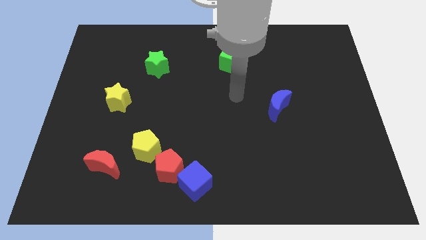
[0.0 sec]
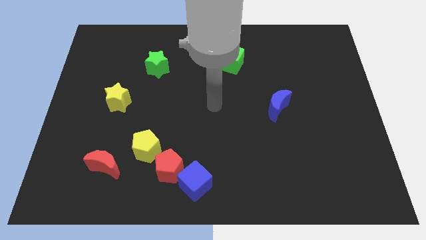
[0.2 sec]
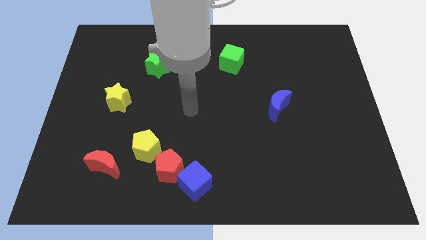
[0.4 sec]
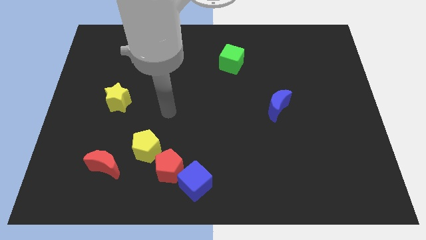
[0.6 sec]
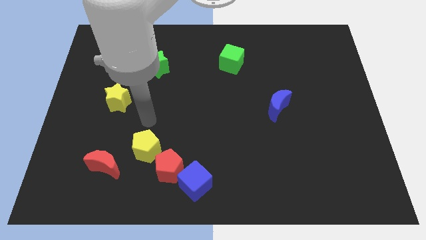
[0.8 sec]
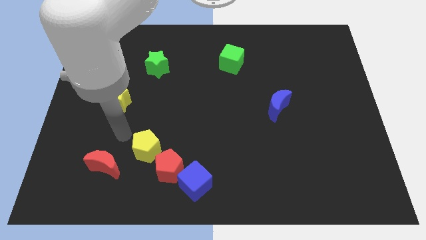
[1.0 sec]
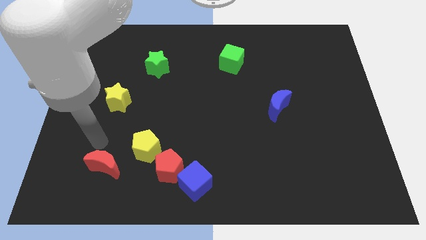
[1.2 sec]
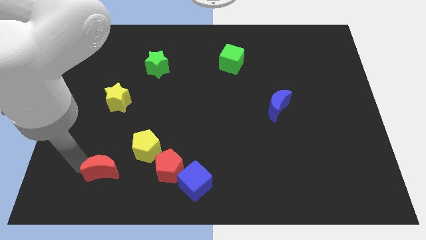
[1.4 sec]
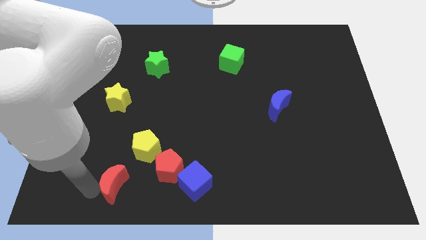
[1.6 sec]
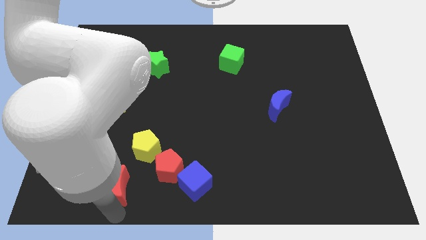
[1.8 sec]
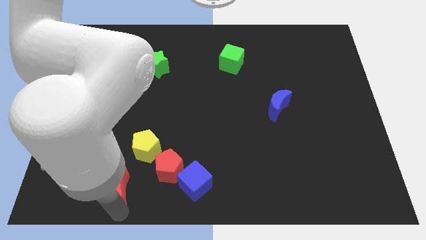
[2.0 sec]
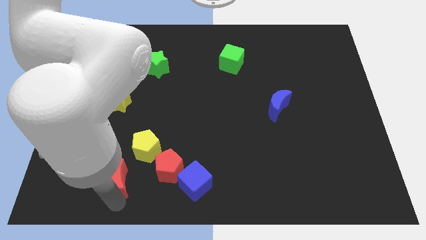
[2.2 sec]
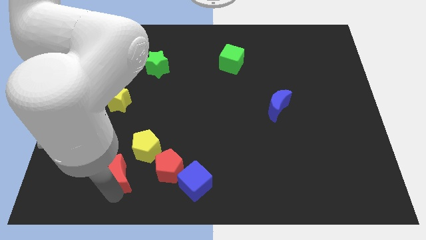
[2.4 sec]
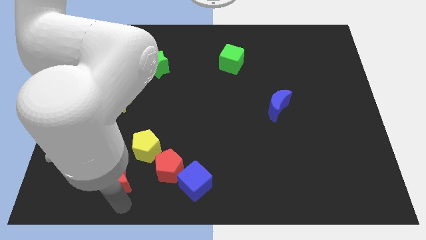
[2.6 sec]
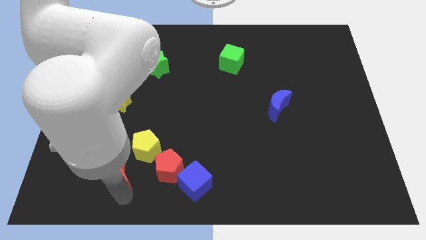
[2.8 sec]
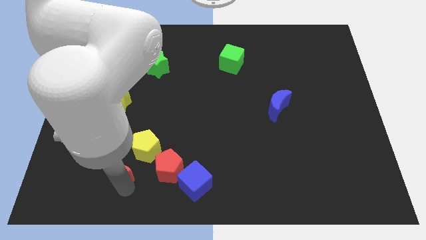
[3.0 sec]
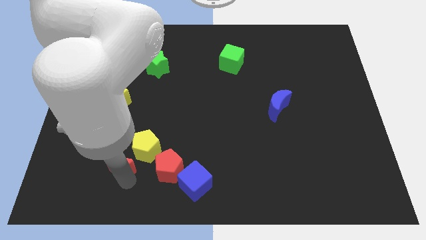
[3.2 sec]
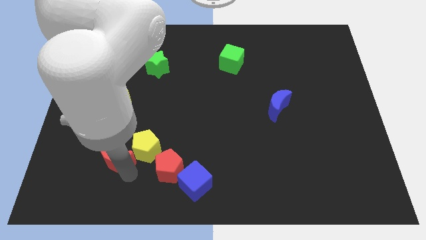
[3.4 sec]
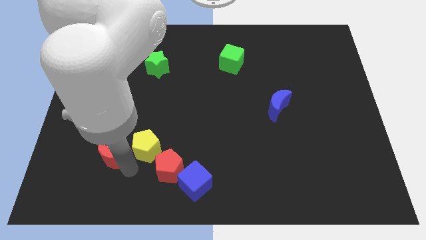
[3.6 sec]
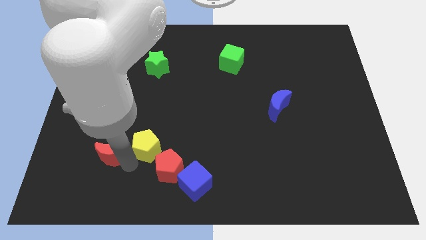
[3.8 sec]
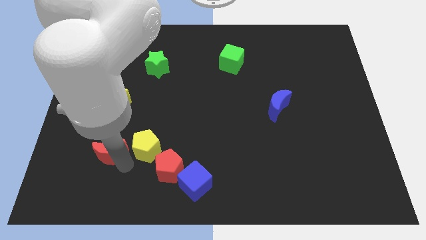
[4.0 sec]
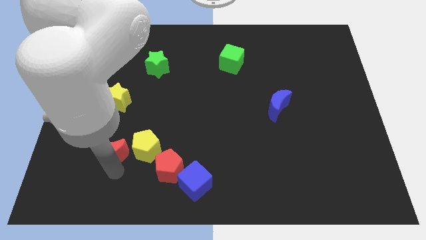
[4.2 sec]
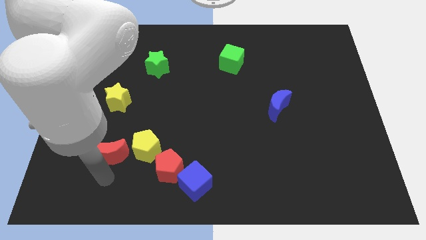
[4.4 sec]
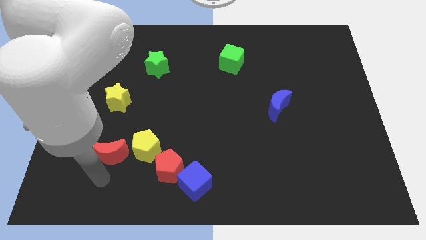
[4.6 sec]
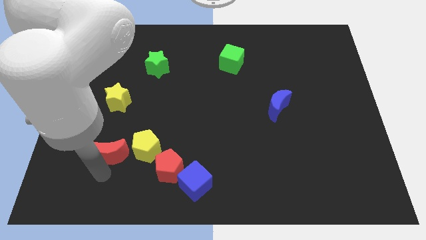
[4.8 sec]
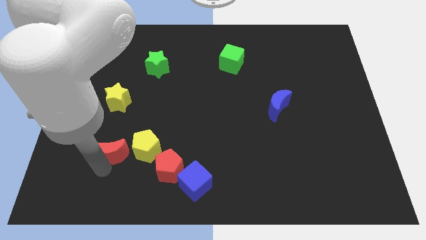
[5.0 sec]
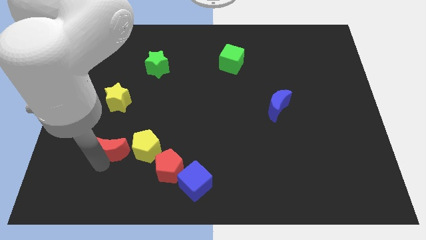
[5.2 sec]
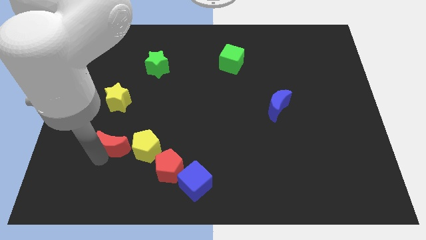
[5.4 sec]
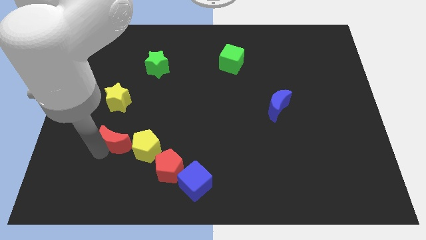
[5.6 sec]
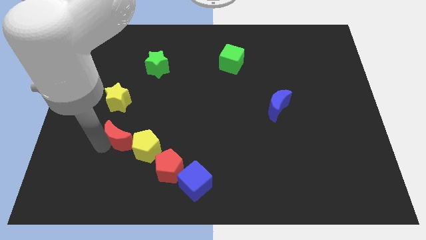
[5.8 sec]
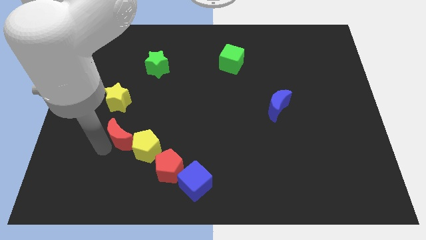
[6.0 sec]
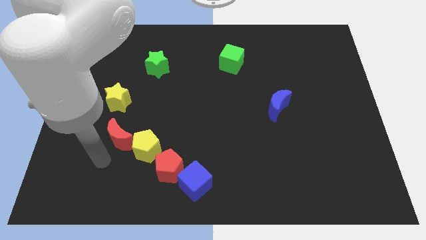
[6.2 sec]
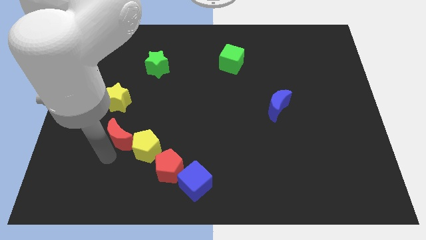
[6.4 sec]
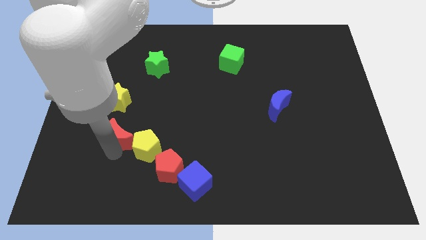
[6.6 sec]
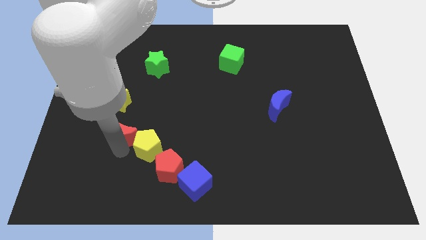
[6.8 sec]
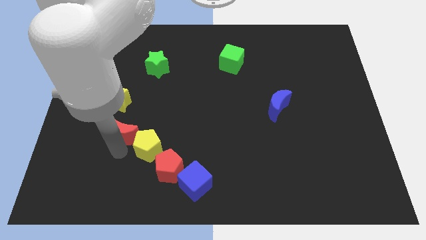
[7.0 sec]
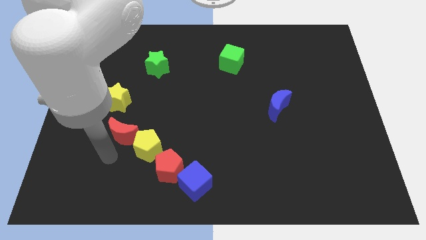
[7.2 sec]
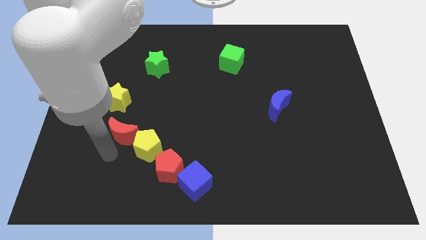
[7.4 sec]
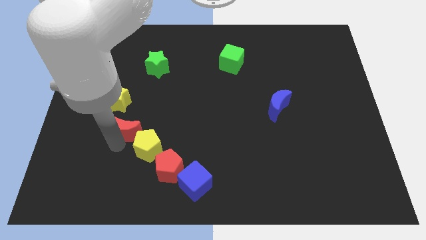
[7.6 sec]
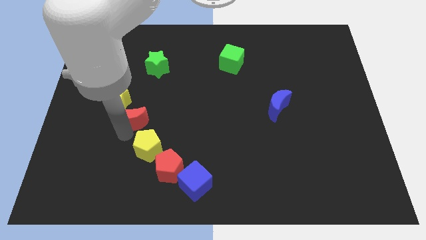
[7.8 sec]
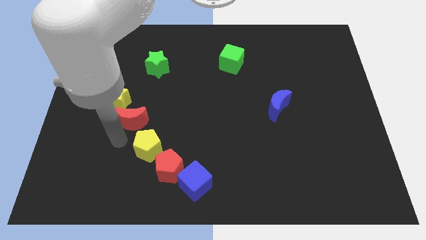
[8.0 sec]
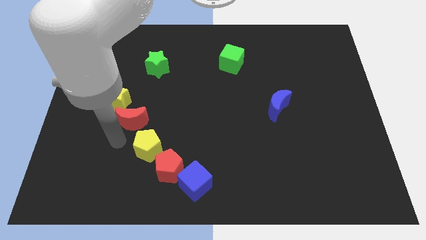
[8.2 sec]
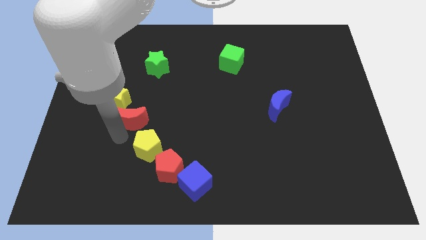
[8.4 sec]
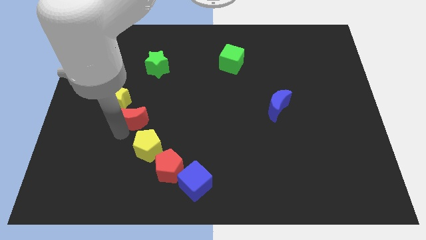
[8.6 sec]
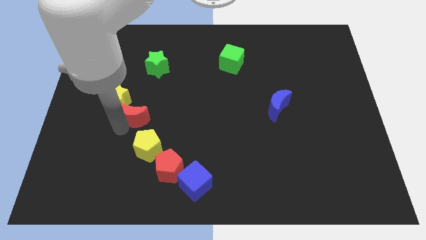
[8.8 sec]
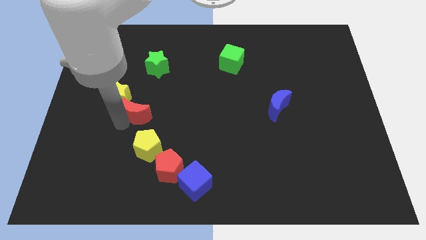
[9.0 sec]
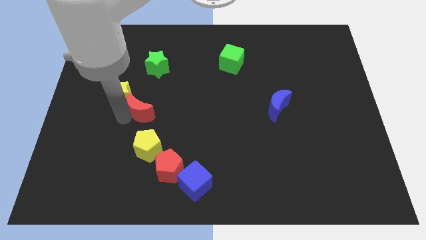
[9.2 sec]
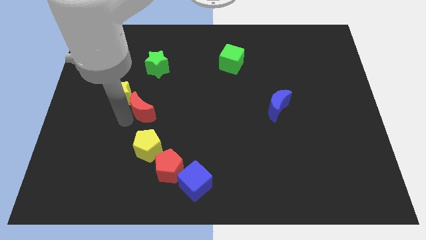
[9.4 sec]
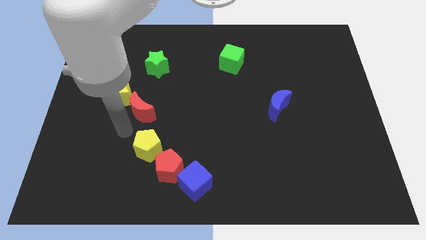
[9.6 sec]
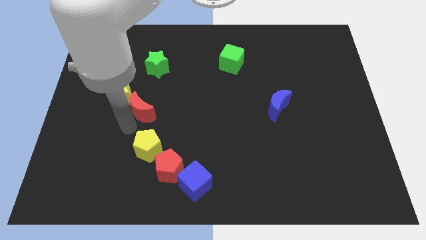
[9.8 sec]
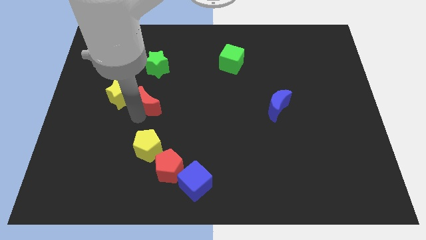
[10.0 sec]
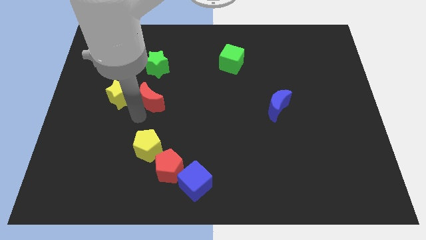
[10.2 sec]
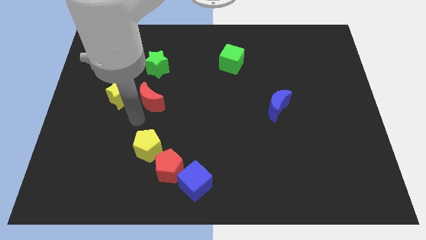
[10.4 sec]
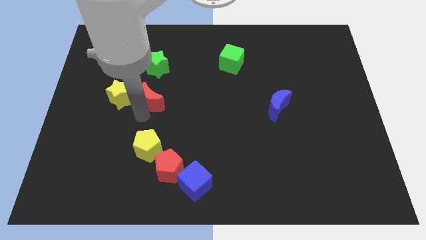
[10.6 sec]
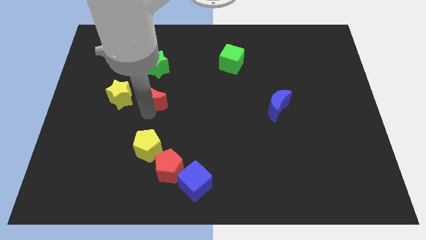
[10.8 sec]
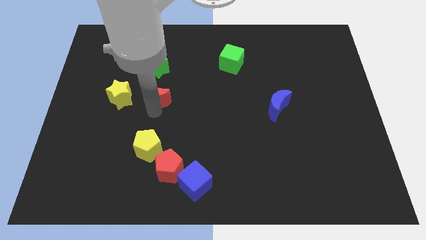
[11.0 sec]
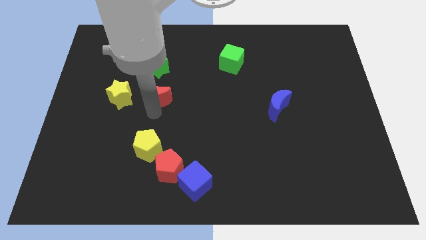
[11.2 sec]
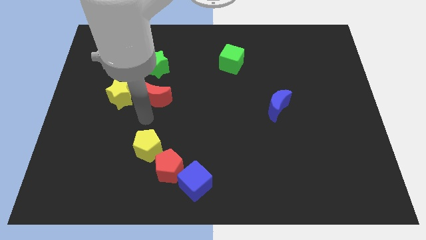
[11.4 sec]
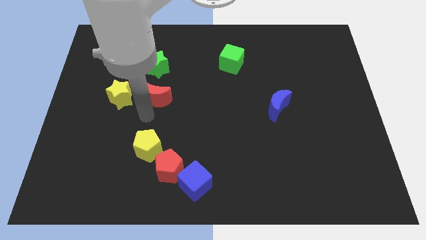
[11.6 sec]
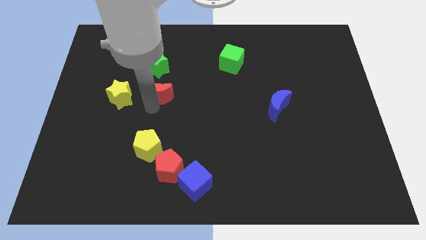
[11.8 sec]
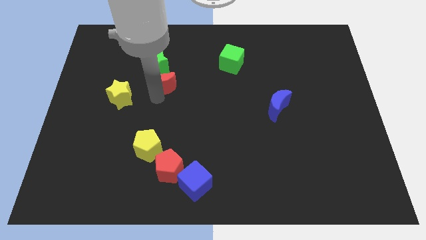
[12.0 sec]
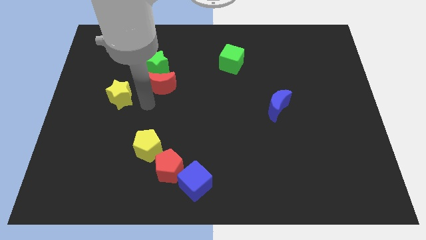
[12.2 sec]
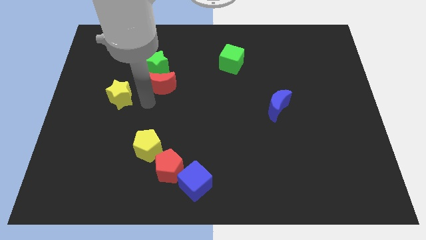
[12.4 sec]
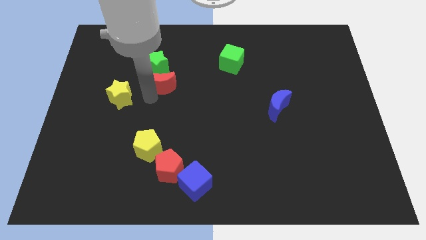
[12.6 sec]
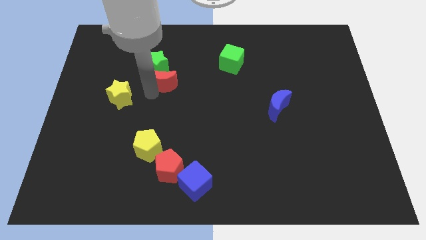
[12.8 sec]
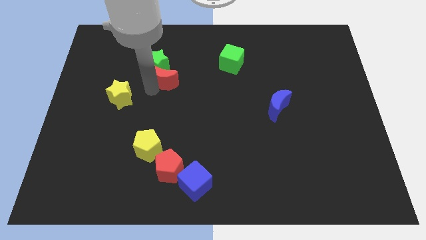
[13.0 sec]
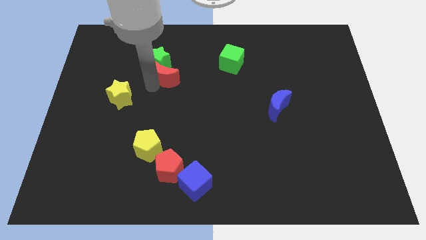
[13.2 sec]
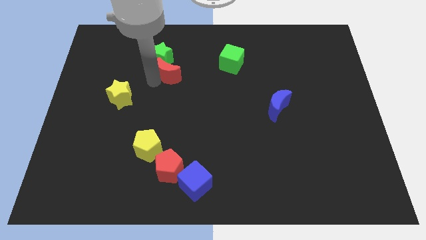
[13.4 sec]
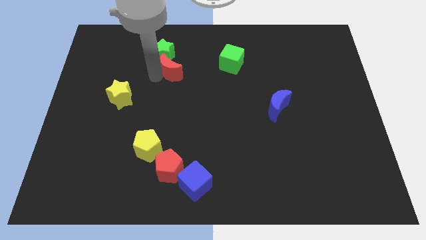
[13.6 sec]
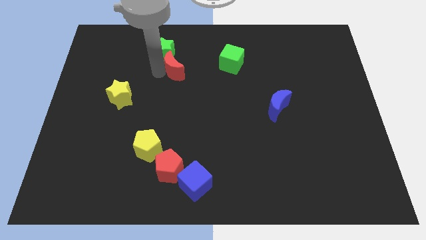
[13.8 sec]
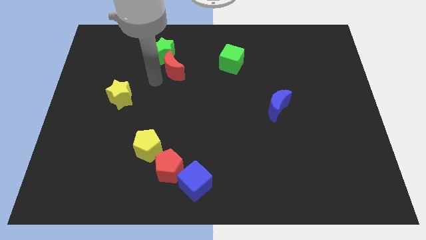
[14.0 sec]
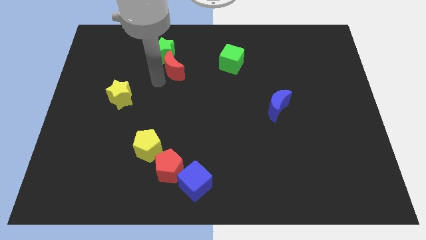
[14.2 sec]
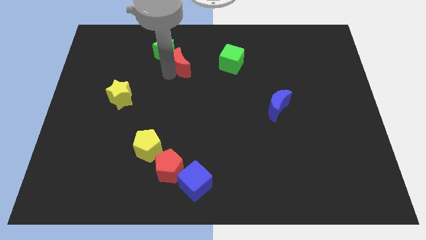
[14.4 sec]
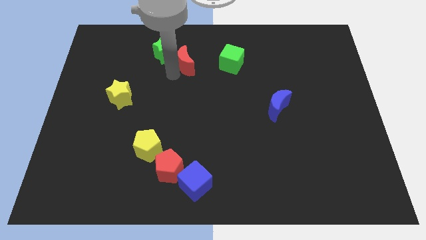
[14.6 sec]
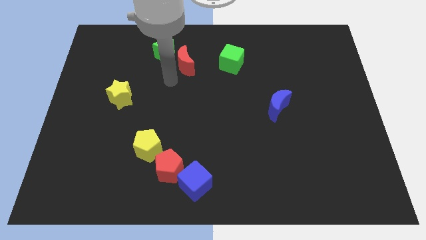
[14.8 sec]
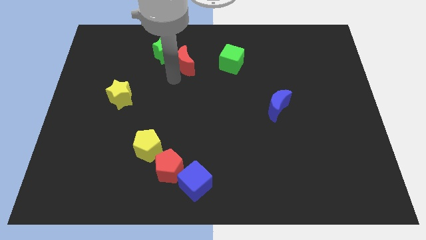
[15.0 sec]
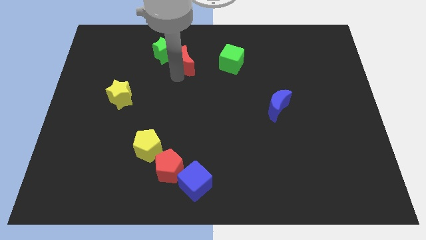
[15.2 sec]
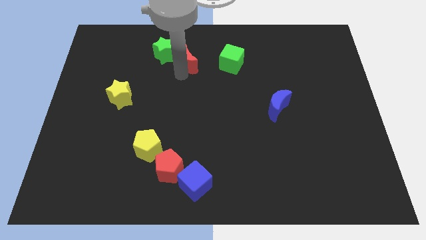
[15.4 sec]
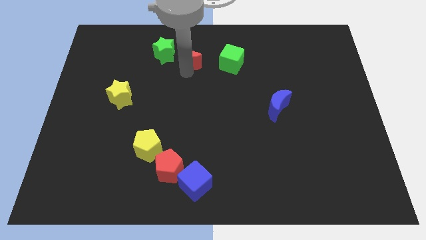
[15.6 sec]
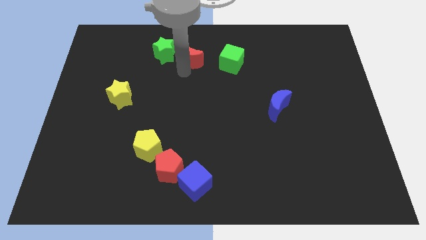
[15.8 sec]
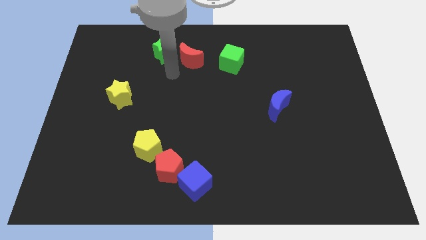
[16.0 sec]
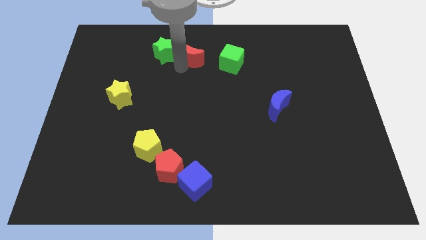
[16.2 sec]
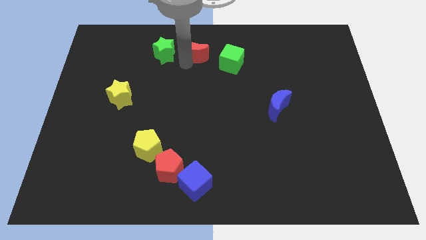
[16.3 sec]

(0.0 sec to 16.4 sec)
put the red moon to the towards your base
